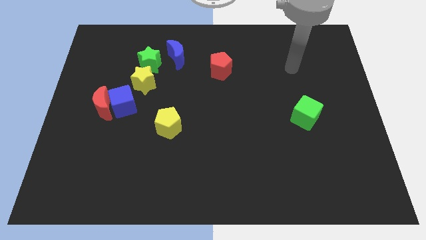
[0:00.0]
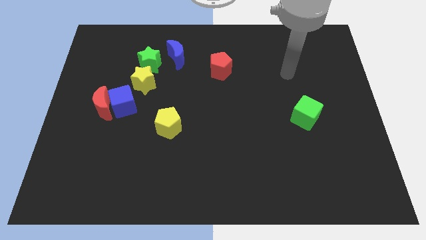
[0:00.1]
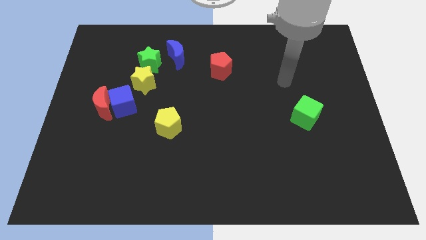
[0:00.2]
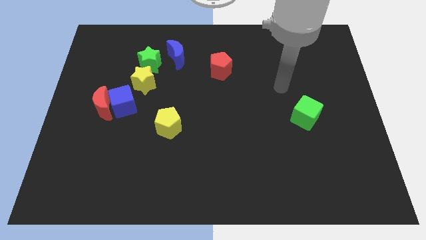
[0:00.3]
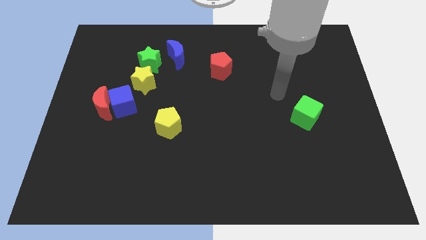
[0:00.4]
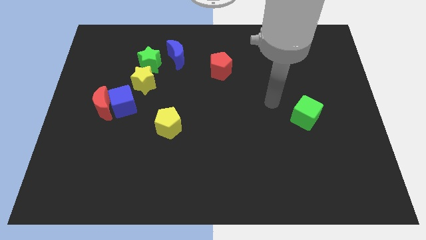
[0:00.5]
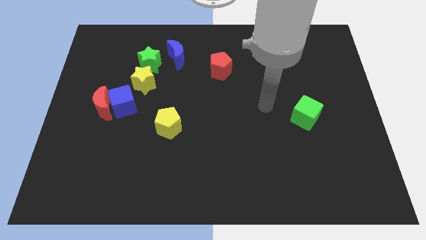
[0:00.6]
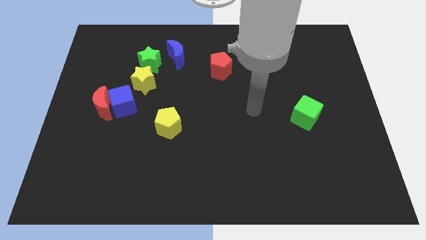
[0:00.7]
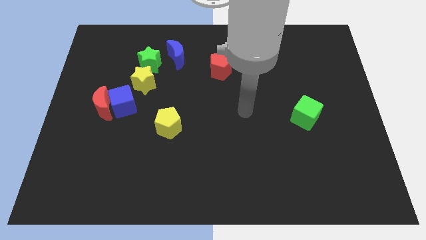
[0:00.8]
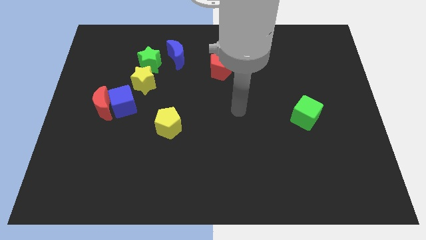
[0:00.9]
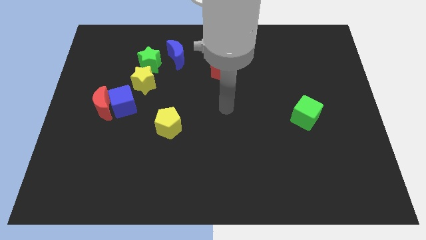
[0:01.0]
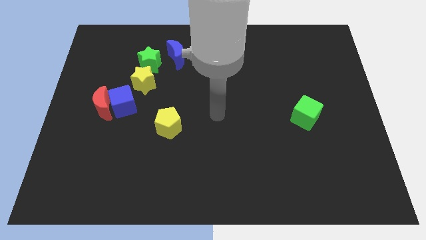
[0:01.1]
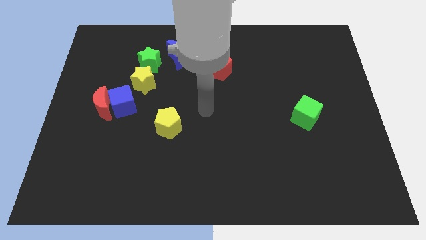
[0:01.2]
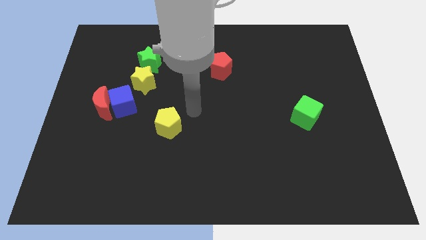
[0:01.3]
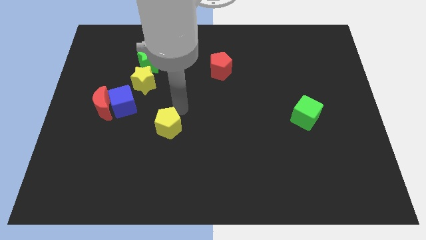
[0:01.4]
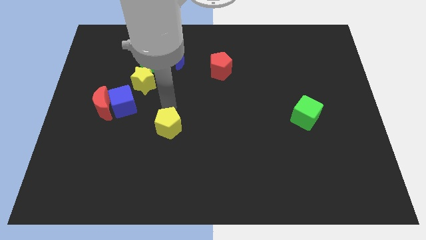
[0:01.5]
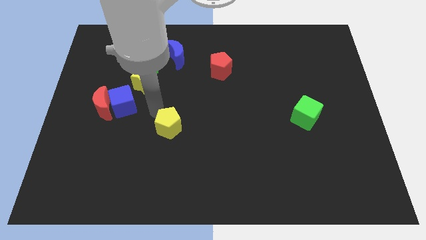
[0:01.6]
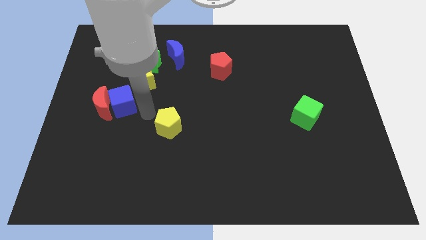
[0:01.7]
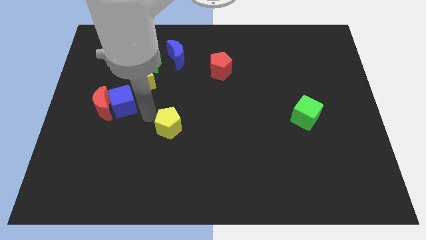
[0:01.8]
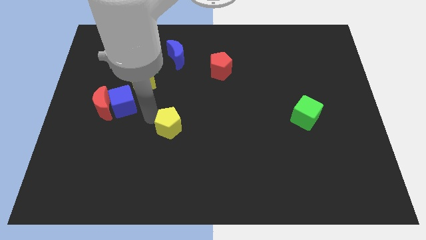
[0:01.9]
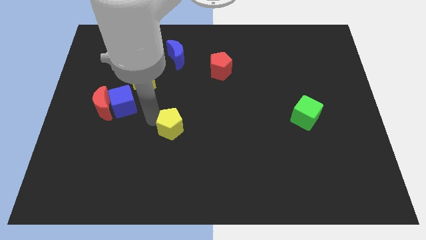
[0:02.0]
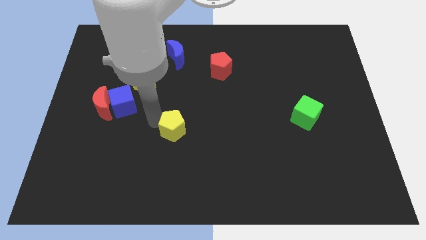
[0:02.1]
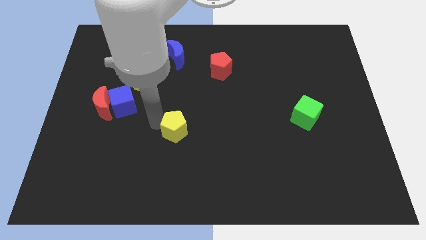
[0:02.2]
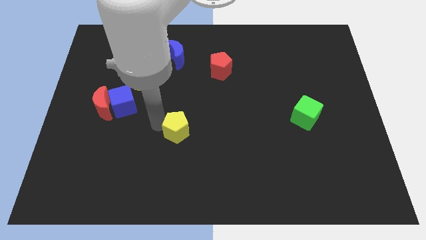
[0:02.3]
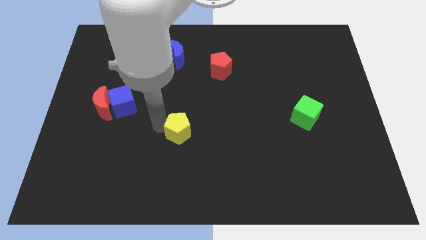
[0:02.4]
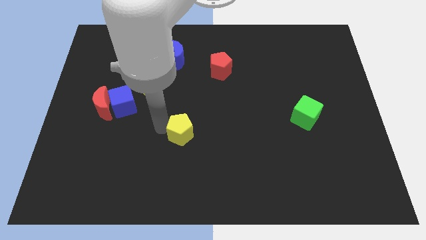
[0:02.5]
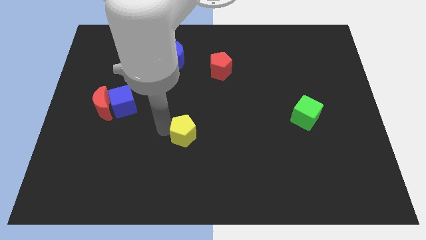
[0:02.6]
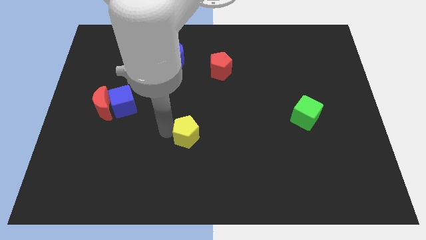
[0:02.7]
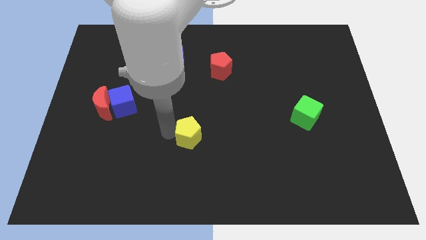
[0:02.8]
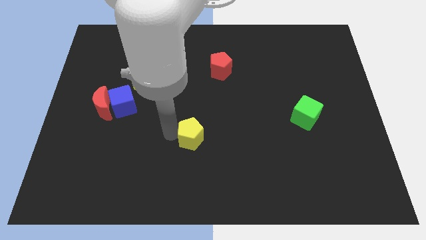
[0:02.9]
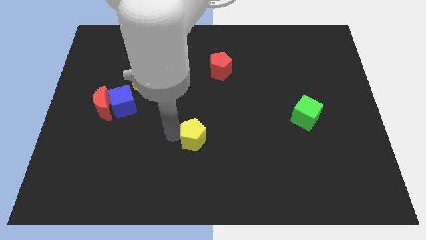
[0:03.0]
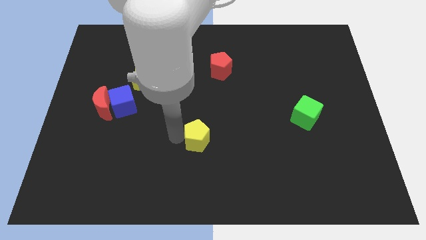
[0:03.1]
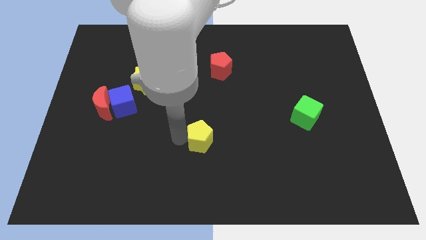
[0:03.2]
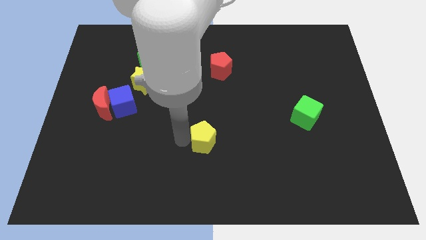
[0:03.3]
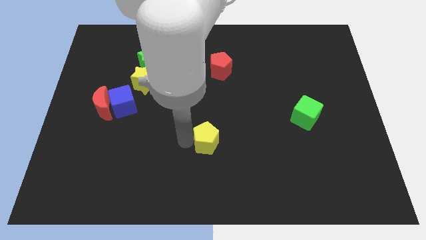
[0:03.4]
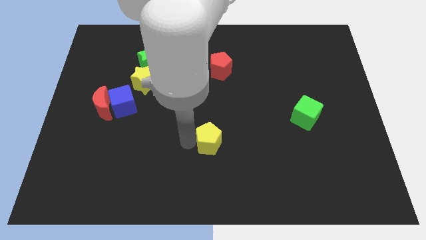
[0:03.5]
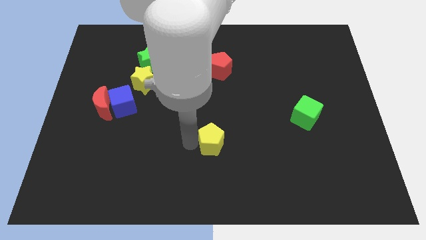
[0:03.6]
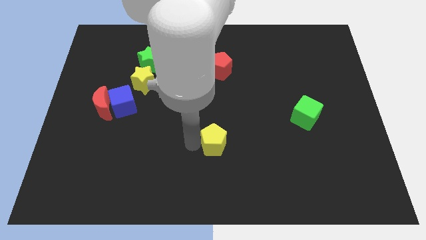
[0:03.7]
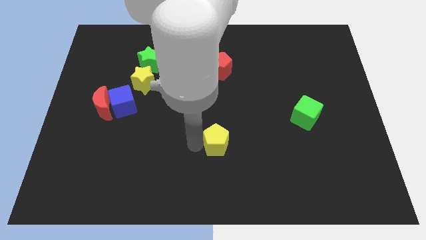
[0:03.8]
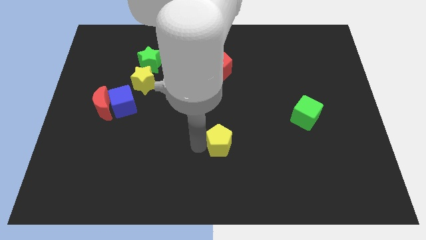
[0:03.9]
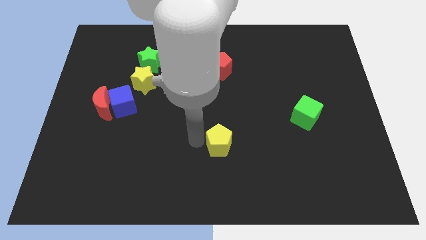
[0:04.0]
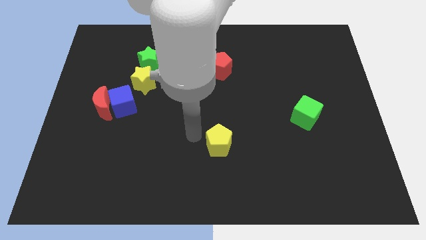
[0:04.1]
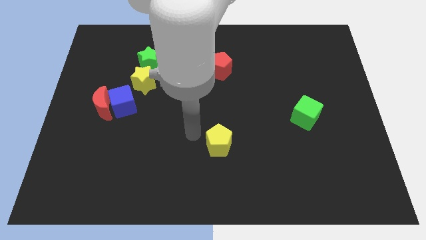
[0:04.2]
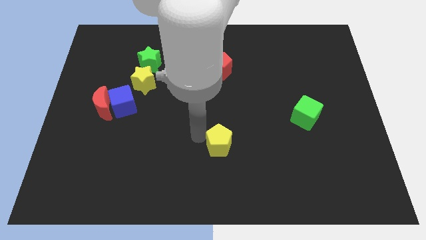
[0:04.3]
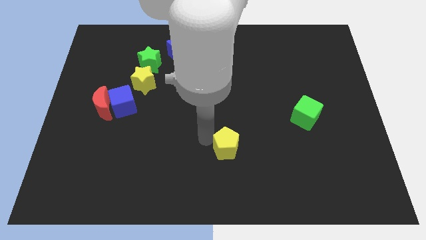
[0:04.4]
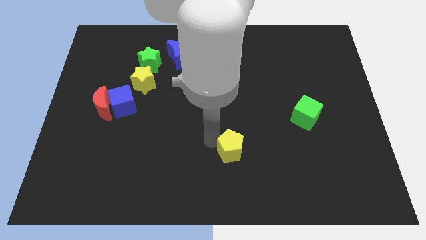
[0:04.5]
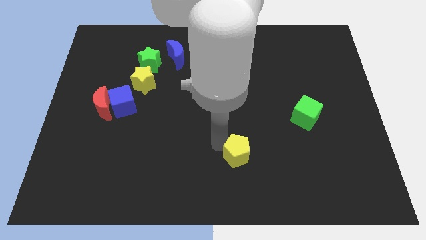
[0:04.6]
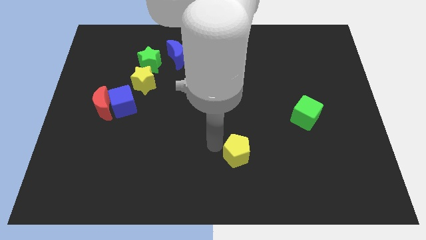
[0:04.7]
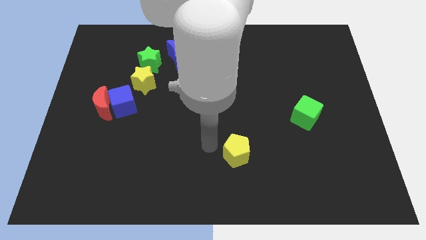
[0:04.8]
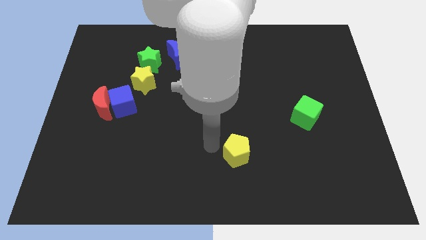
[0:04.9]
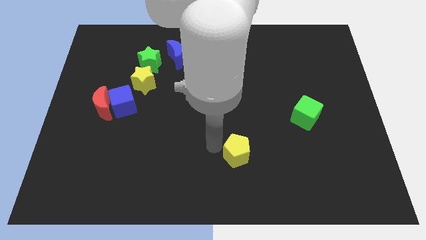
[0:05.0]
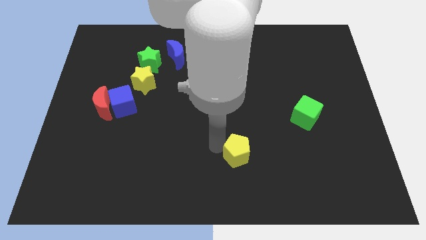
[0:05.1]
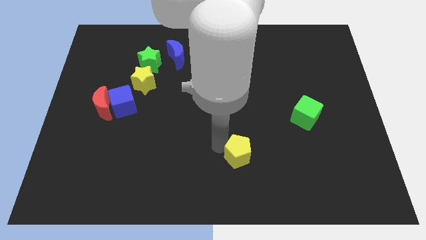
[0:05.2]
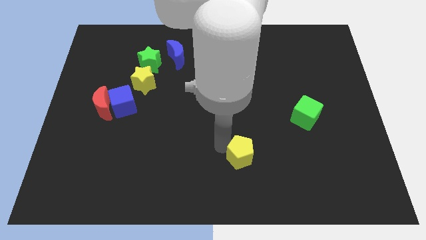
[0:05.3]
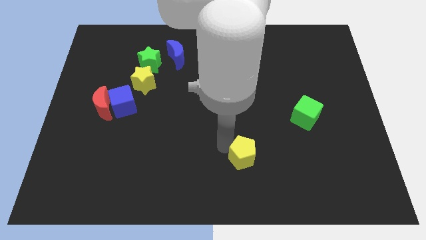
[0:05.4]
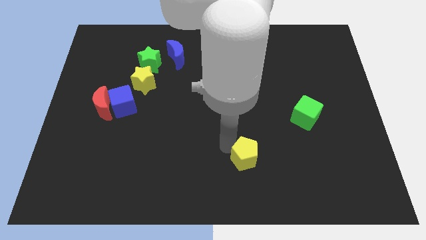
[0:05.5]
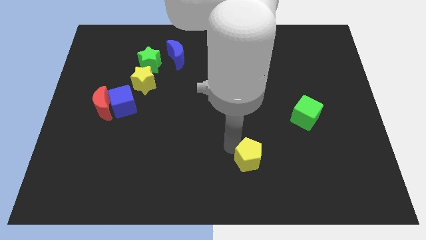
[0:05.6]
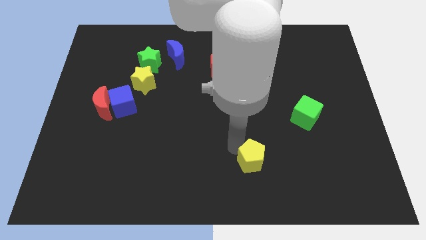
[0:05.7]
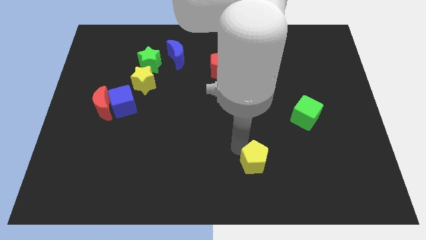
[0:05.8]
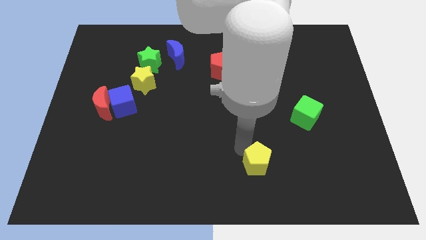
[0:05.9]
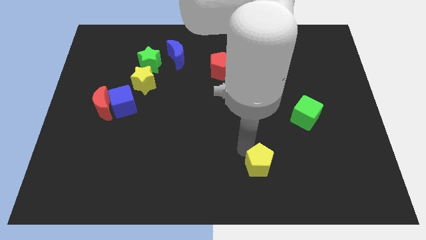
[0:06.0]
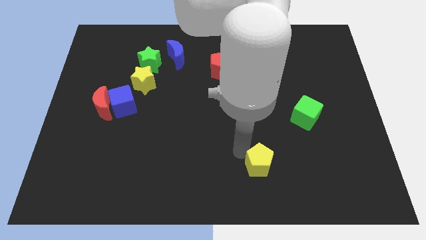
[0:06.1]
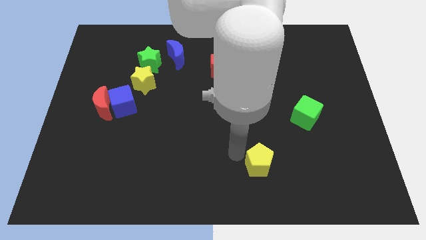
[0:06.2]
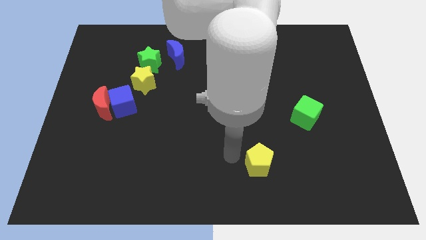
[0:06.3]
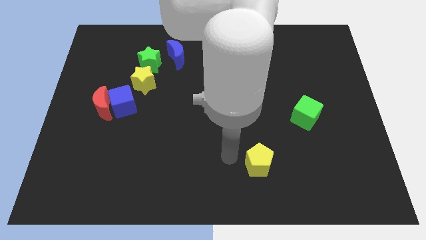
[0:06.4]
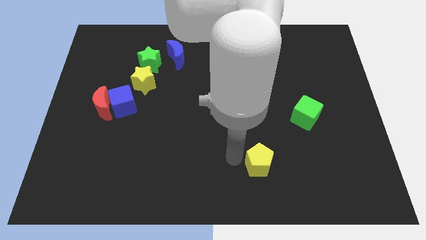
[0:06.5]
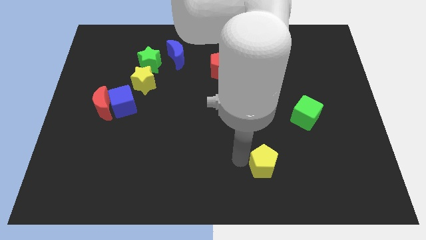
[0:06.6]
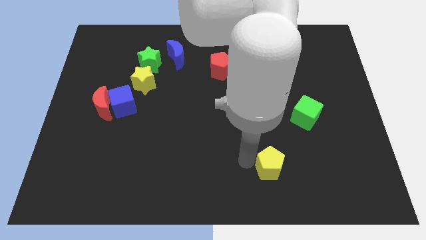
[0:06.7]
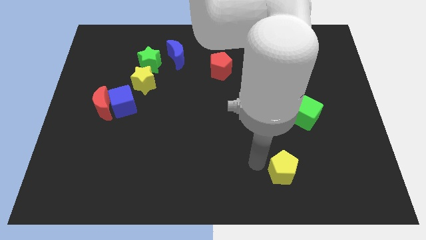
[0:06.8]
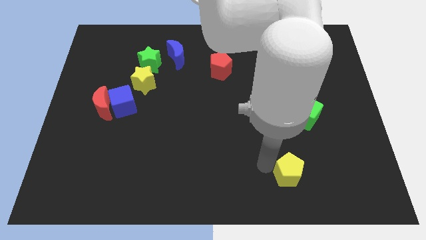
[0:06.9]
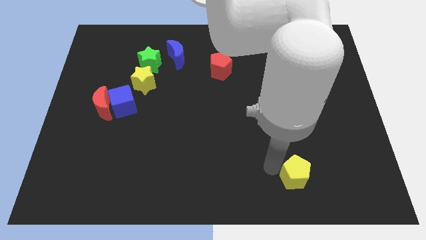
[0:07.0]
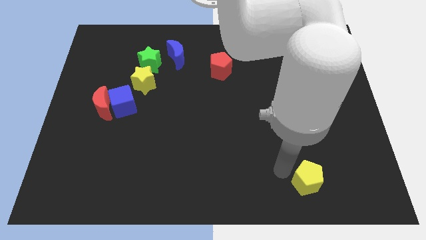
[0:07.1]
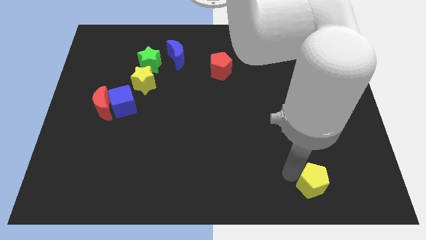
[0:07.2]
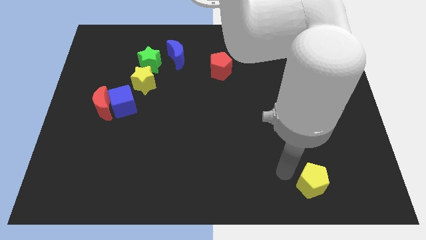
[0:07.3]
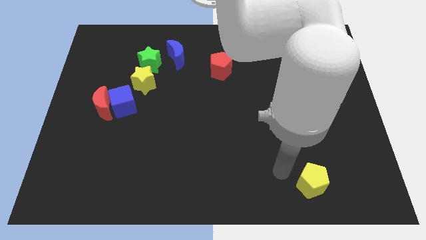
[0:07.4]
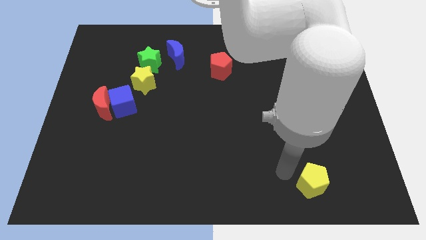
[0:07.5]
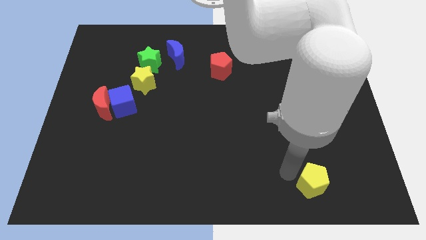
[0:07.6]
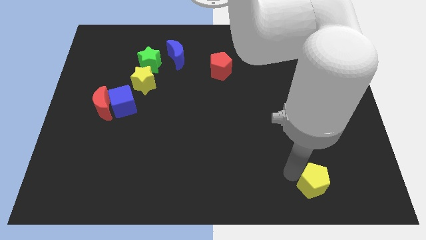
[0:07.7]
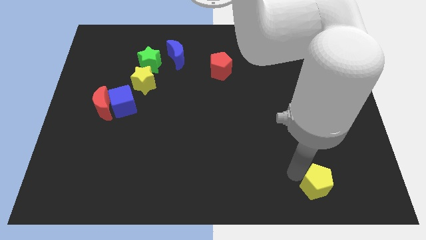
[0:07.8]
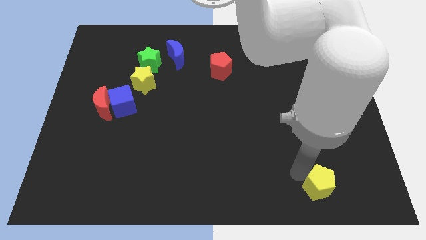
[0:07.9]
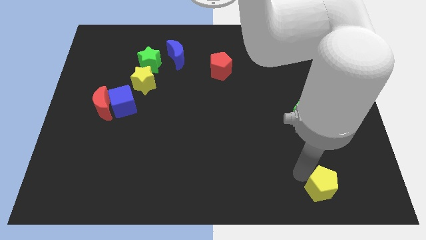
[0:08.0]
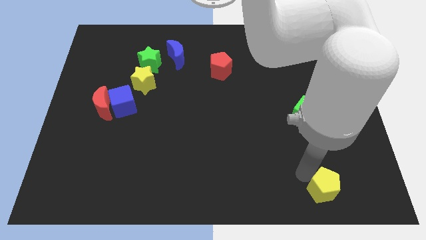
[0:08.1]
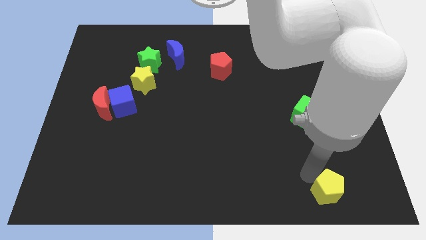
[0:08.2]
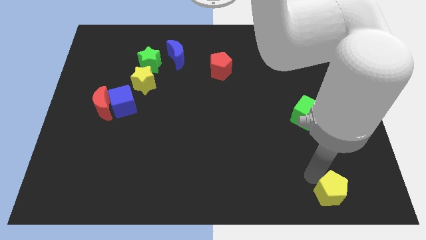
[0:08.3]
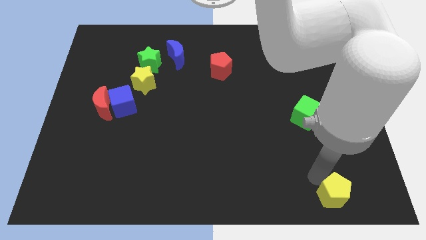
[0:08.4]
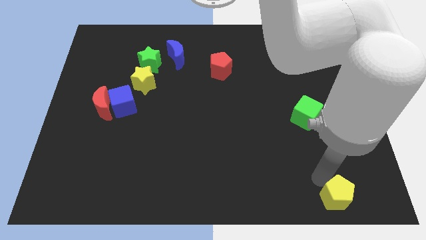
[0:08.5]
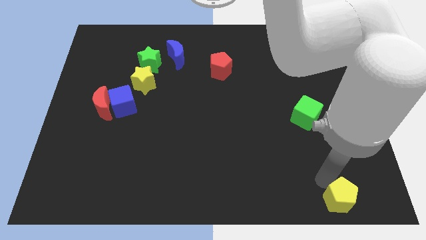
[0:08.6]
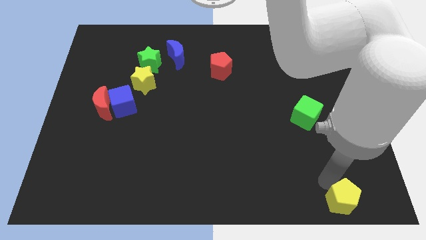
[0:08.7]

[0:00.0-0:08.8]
move the yellow pentagon to the lower right corner
